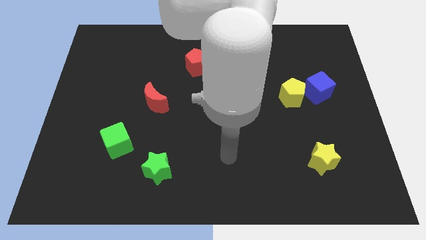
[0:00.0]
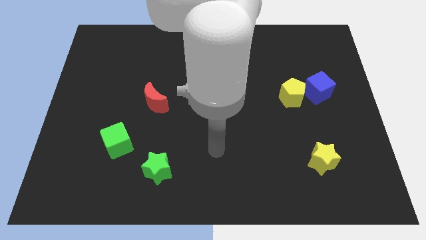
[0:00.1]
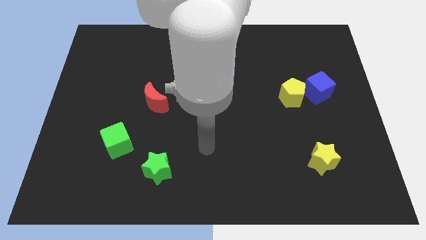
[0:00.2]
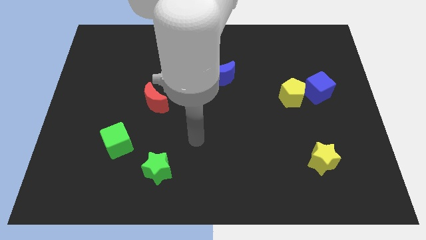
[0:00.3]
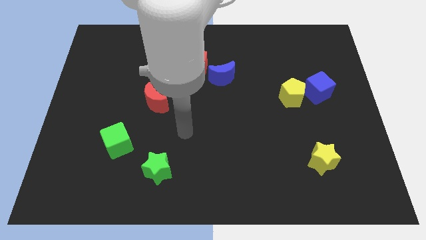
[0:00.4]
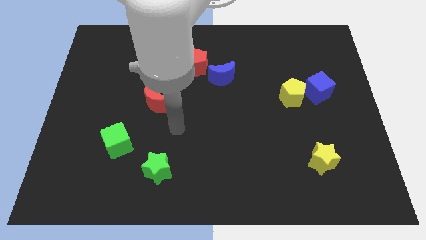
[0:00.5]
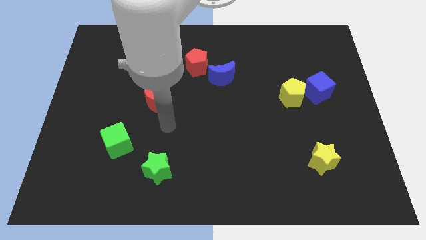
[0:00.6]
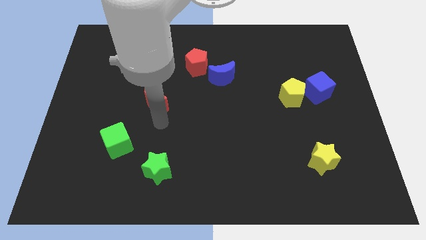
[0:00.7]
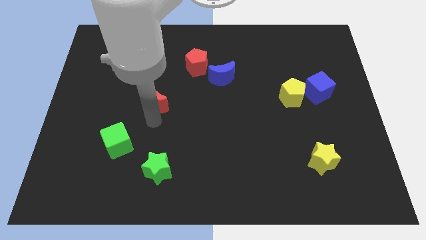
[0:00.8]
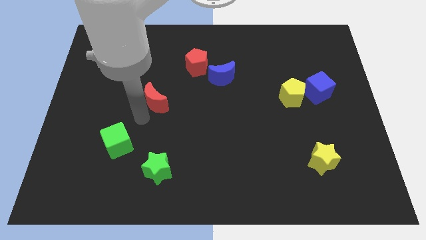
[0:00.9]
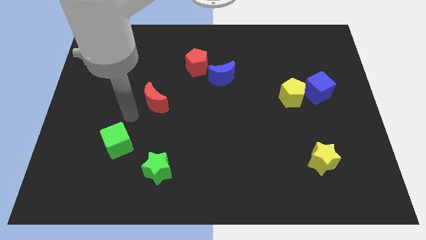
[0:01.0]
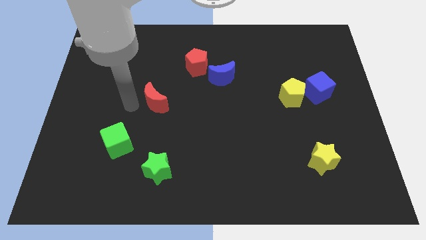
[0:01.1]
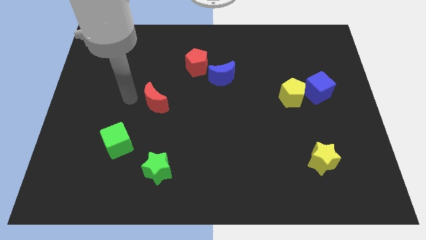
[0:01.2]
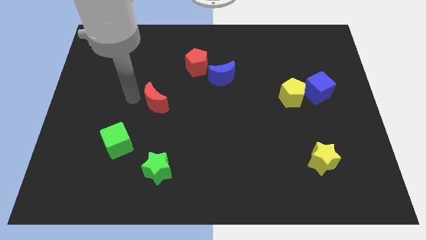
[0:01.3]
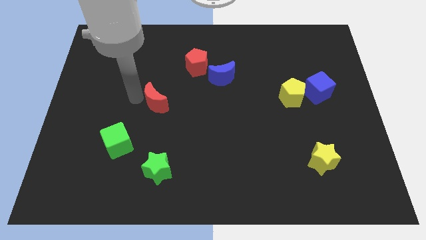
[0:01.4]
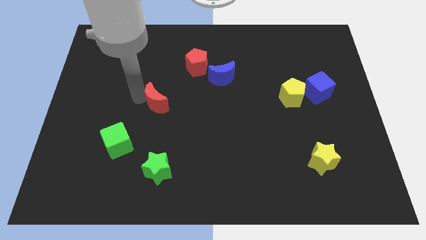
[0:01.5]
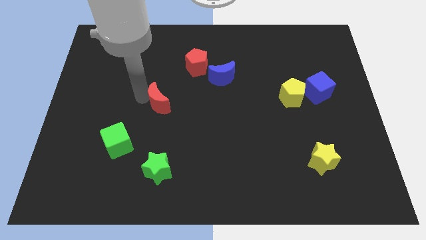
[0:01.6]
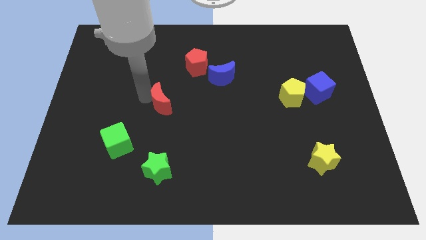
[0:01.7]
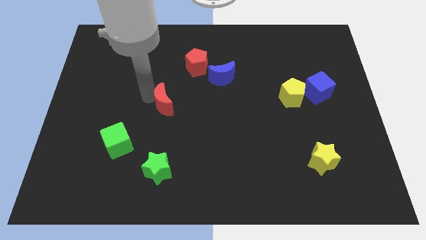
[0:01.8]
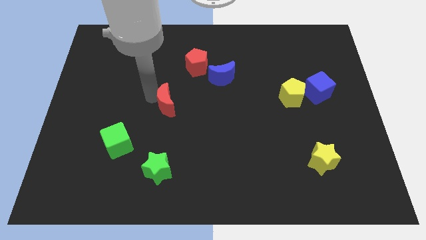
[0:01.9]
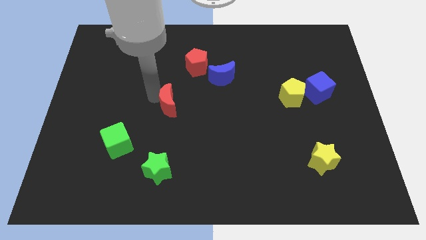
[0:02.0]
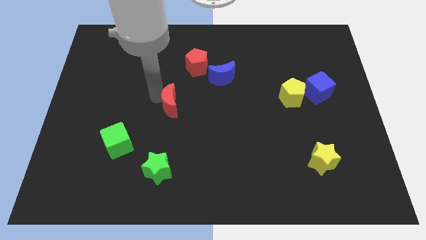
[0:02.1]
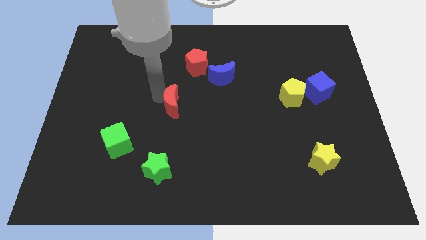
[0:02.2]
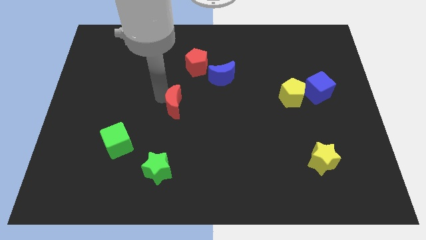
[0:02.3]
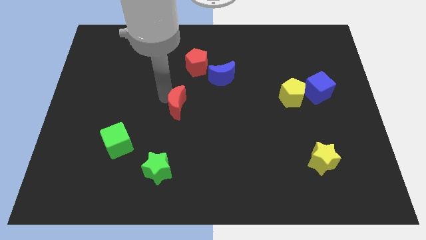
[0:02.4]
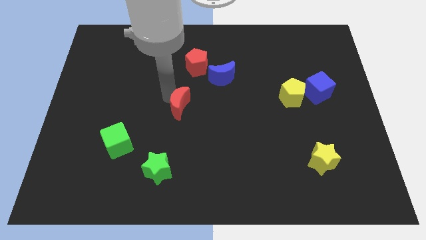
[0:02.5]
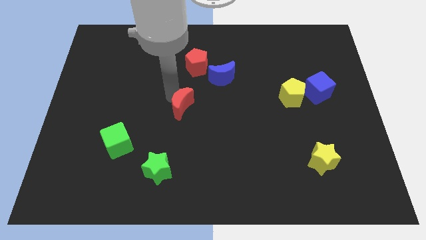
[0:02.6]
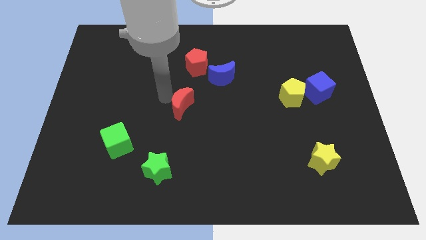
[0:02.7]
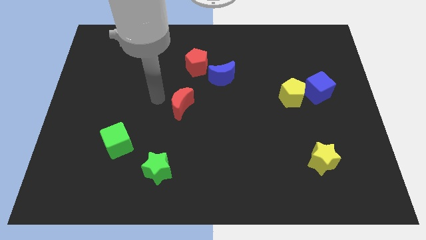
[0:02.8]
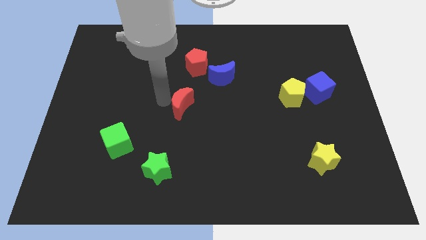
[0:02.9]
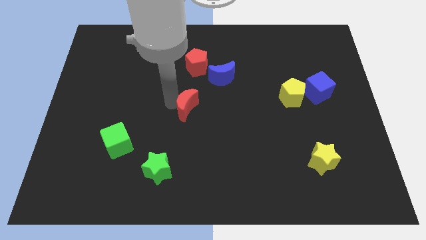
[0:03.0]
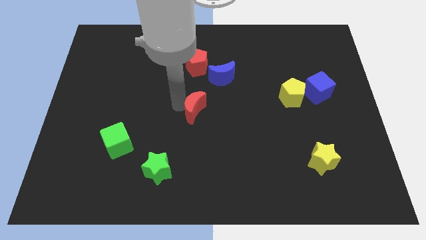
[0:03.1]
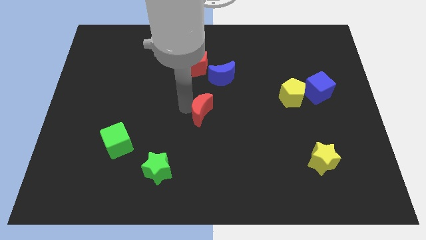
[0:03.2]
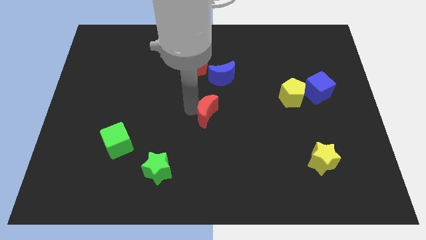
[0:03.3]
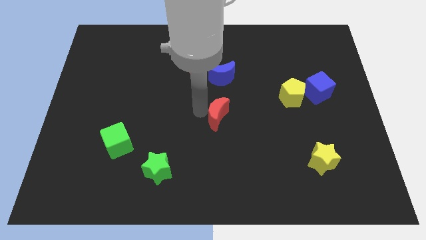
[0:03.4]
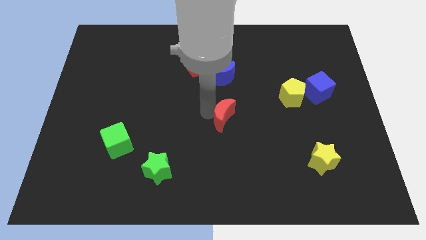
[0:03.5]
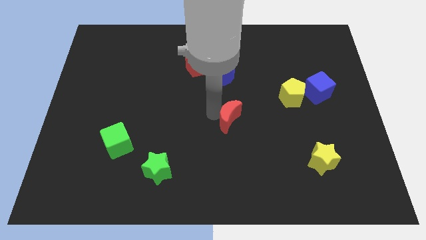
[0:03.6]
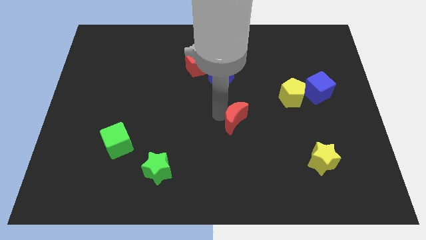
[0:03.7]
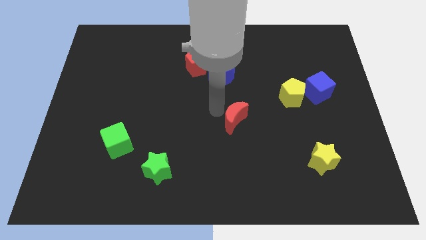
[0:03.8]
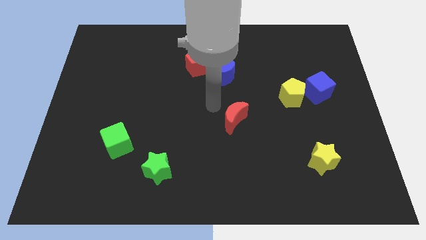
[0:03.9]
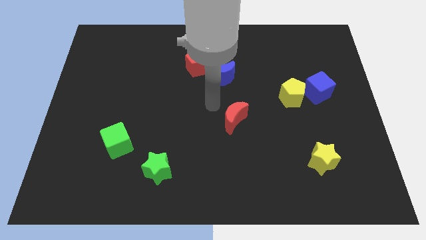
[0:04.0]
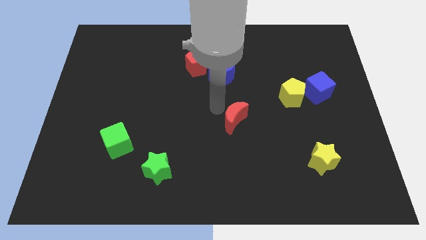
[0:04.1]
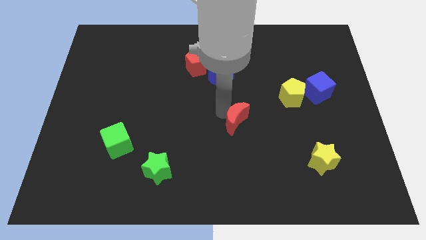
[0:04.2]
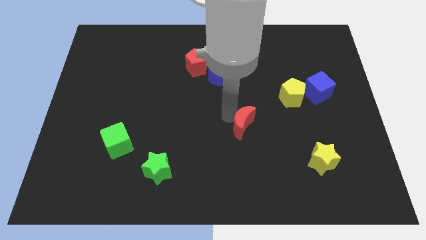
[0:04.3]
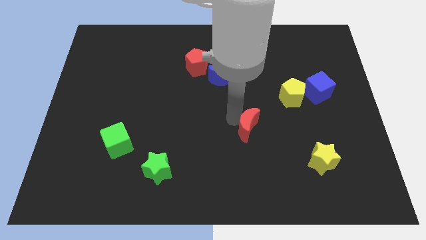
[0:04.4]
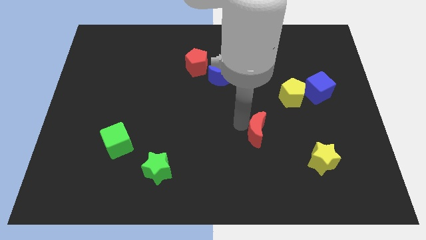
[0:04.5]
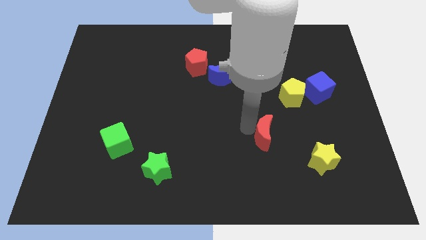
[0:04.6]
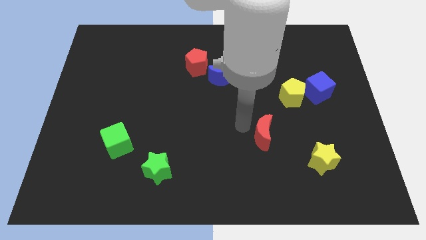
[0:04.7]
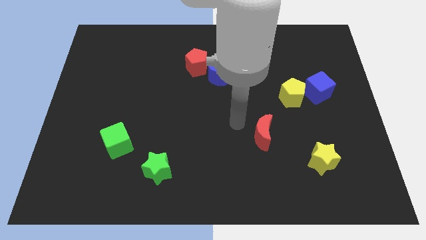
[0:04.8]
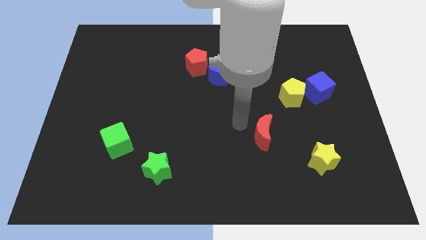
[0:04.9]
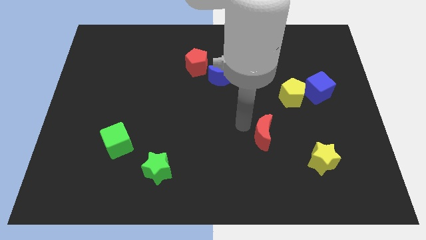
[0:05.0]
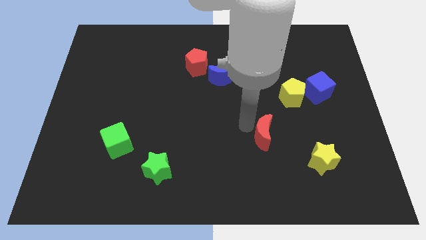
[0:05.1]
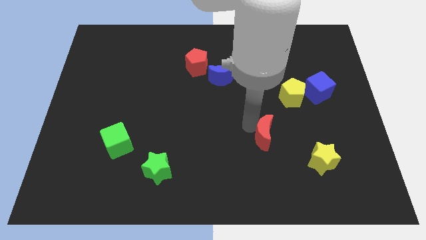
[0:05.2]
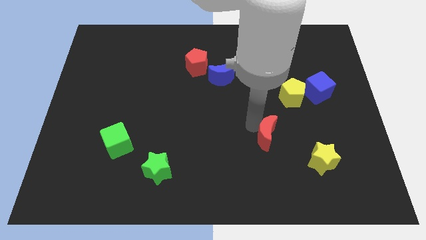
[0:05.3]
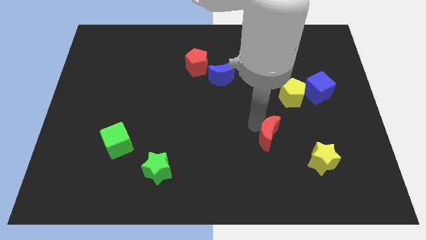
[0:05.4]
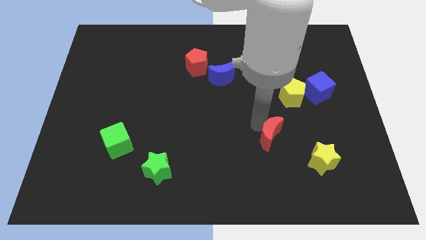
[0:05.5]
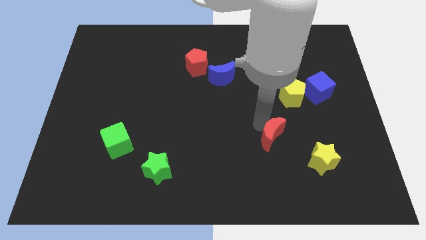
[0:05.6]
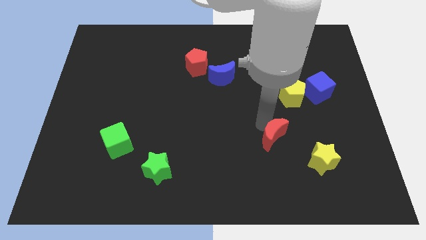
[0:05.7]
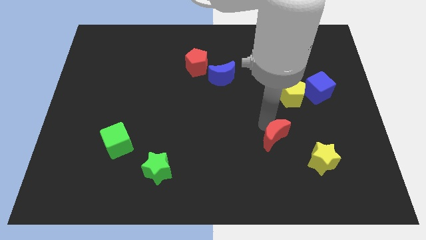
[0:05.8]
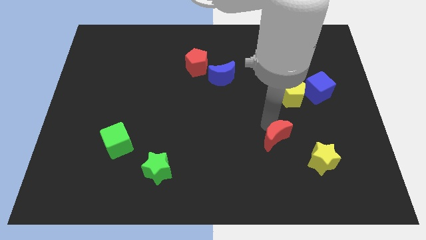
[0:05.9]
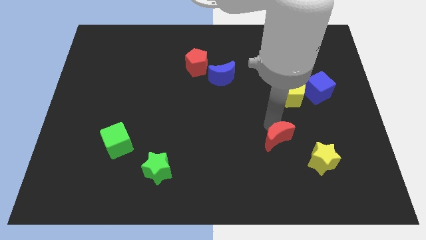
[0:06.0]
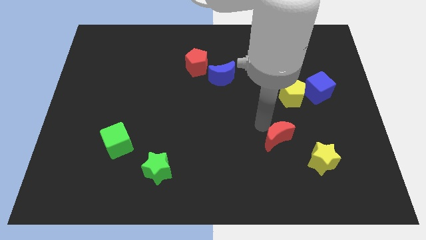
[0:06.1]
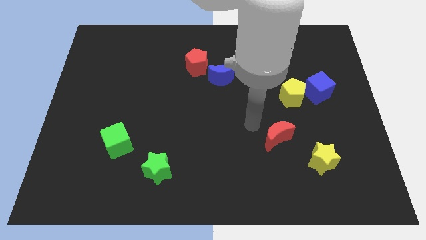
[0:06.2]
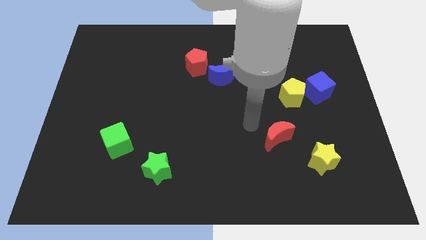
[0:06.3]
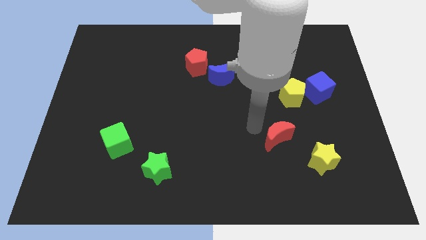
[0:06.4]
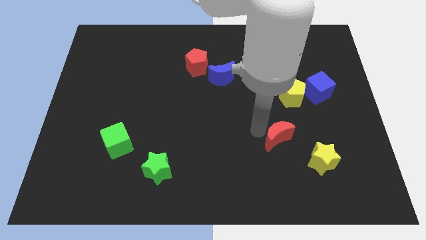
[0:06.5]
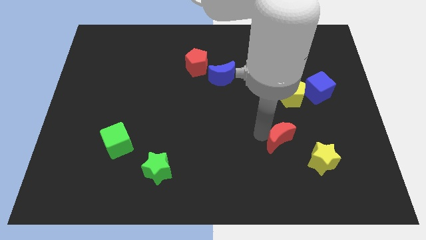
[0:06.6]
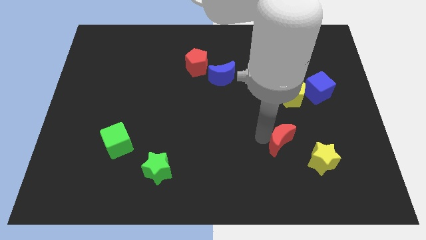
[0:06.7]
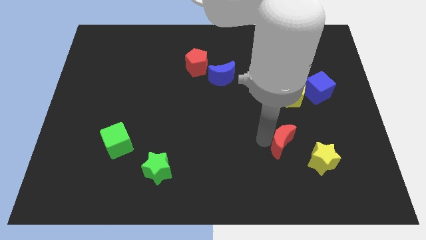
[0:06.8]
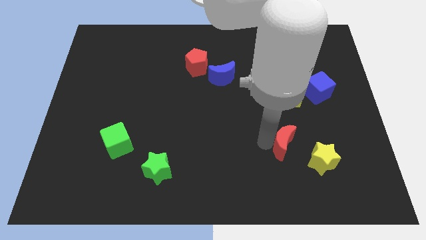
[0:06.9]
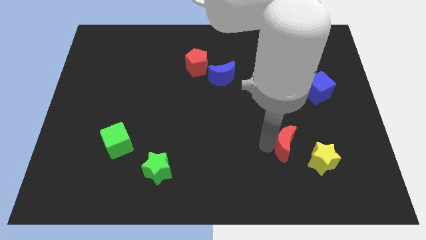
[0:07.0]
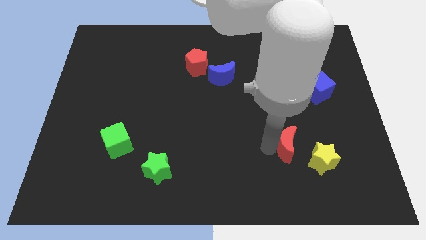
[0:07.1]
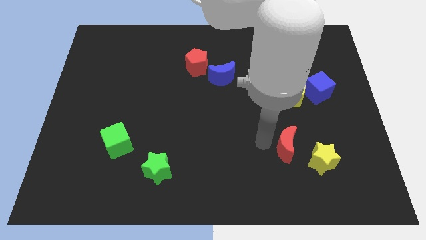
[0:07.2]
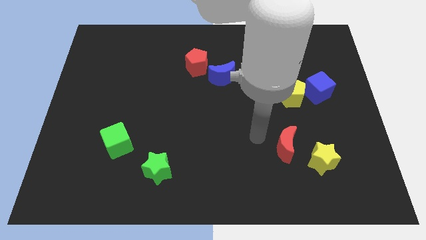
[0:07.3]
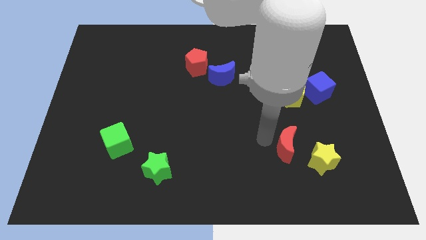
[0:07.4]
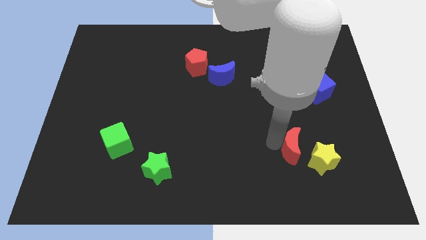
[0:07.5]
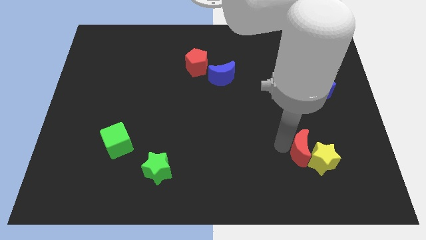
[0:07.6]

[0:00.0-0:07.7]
slide the red moon next to the yellow star
